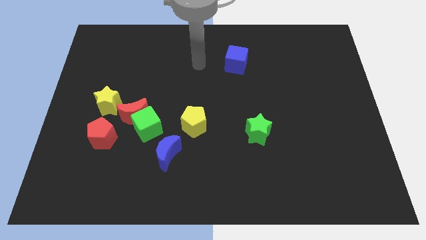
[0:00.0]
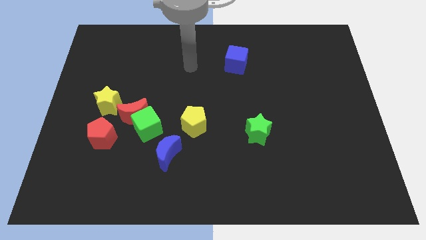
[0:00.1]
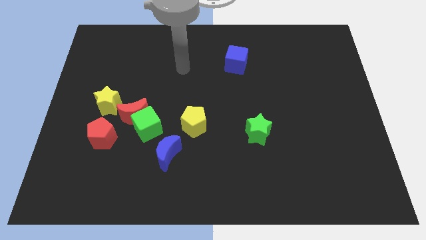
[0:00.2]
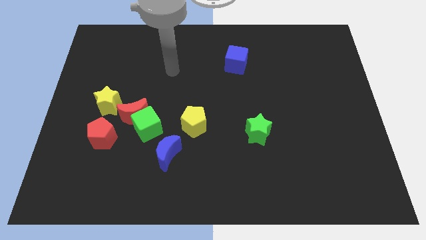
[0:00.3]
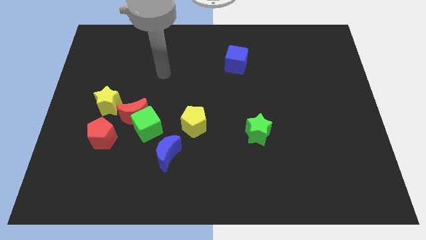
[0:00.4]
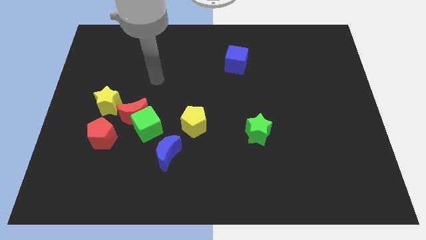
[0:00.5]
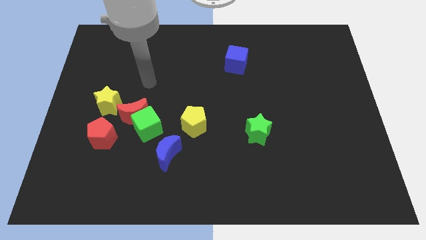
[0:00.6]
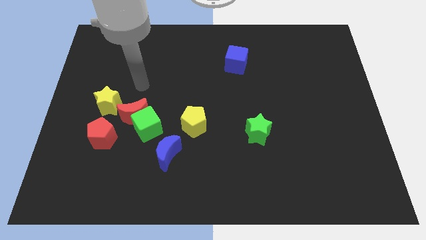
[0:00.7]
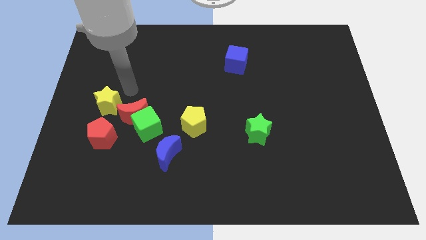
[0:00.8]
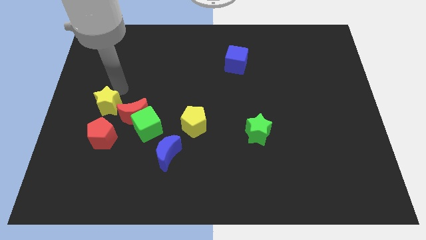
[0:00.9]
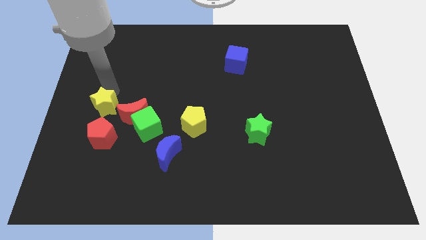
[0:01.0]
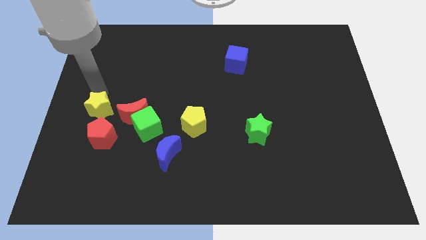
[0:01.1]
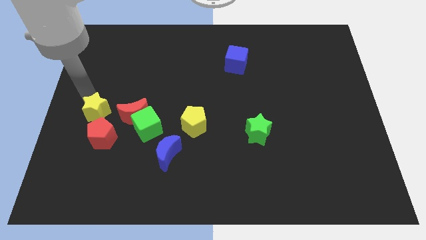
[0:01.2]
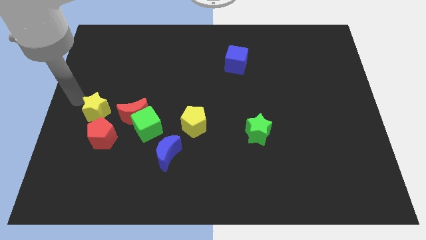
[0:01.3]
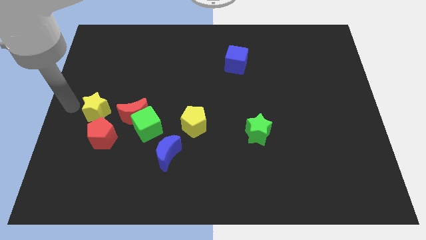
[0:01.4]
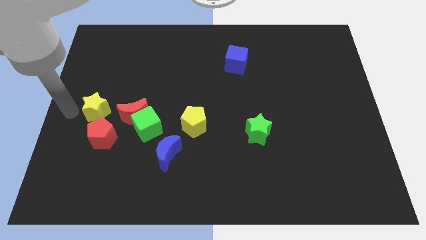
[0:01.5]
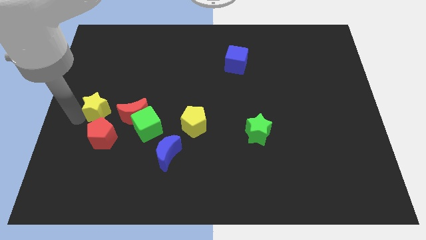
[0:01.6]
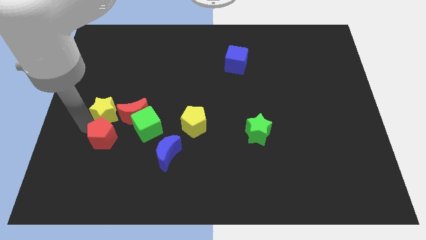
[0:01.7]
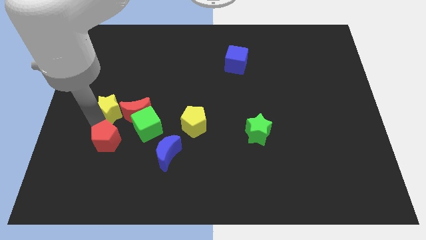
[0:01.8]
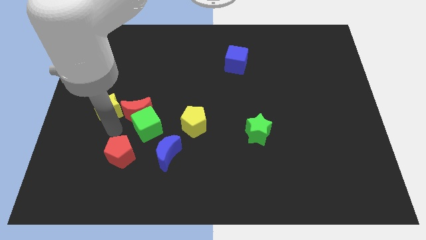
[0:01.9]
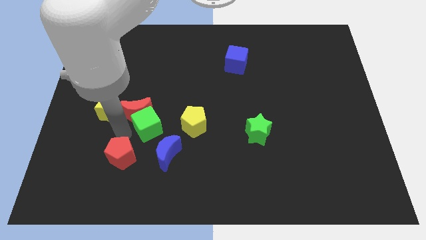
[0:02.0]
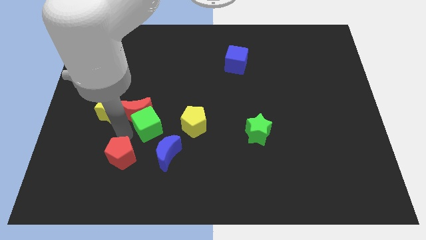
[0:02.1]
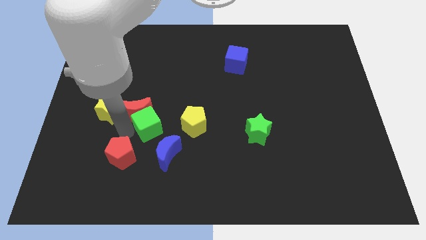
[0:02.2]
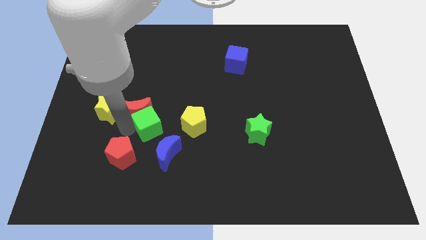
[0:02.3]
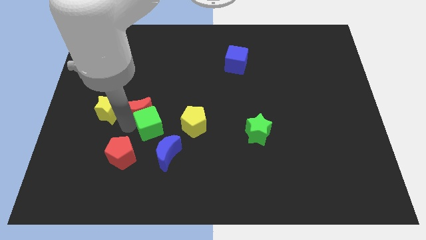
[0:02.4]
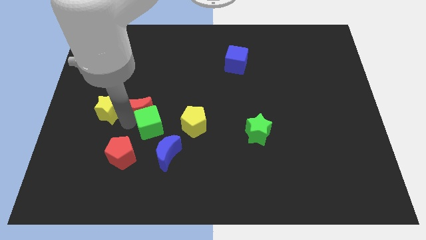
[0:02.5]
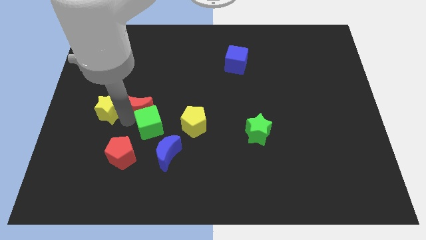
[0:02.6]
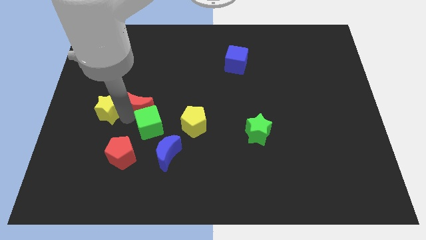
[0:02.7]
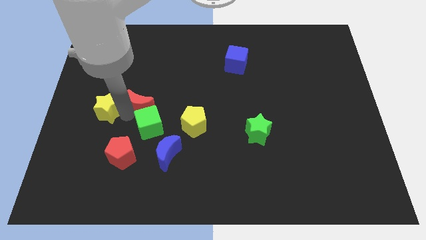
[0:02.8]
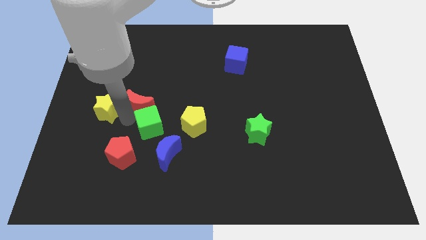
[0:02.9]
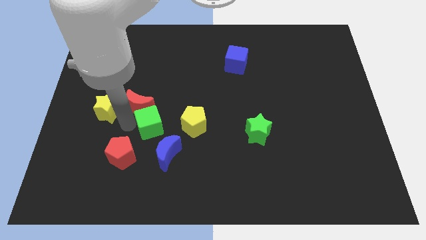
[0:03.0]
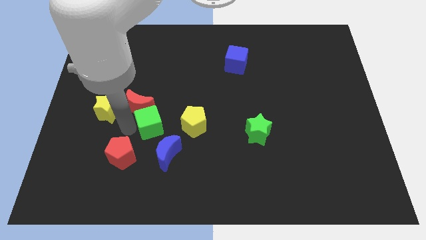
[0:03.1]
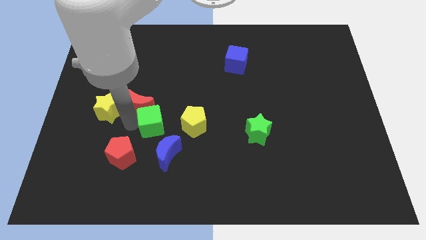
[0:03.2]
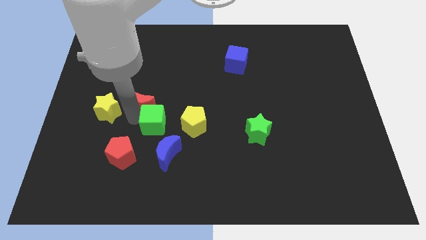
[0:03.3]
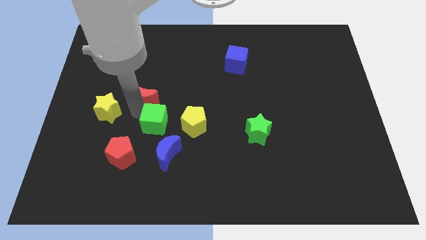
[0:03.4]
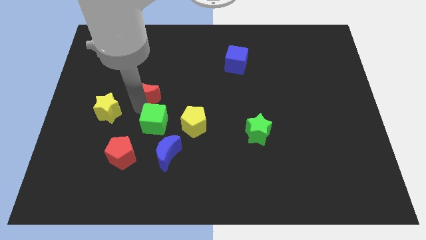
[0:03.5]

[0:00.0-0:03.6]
move the red moon away from the green cube, yellow star, and red pentagon

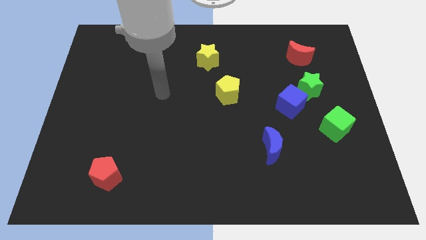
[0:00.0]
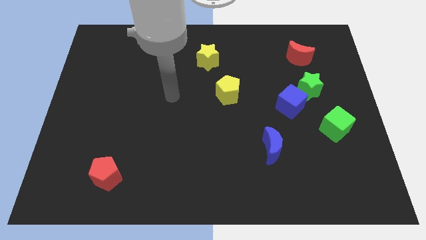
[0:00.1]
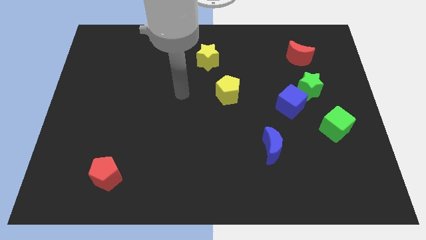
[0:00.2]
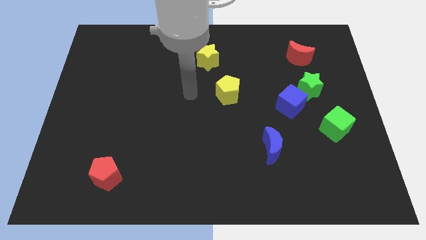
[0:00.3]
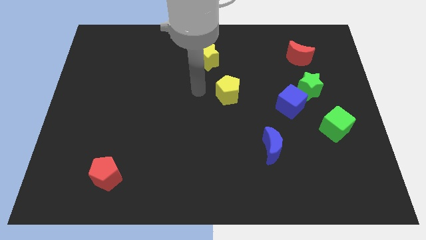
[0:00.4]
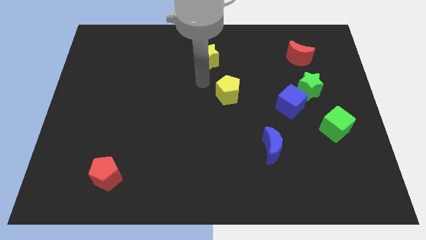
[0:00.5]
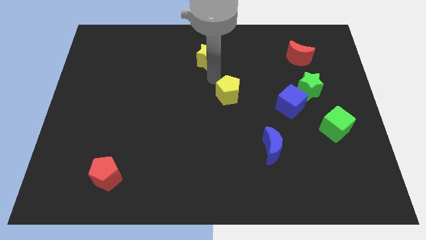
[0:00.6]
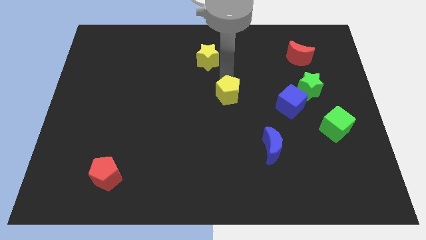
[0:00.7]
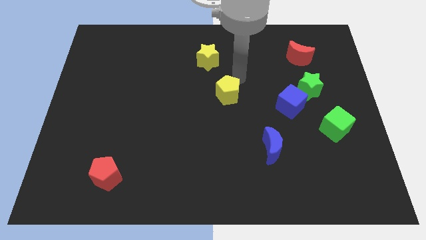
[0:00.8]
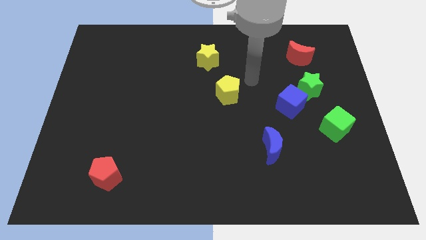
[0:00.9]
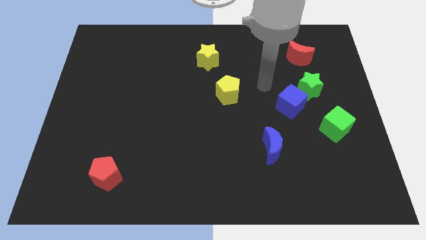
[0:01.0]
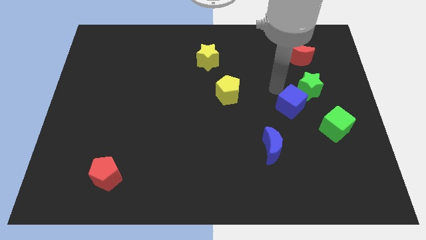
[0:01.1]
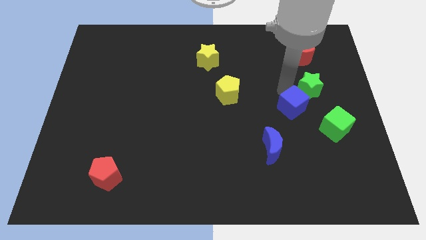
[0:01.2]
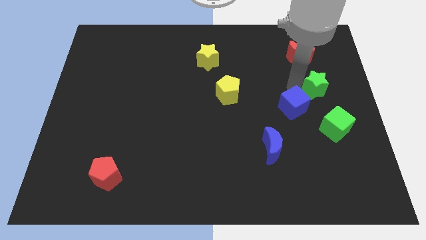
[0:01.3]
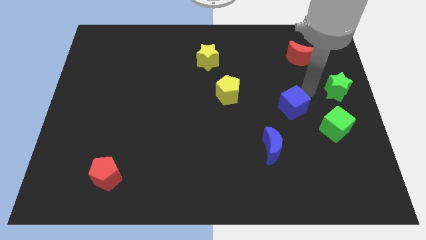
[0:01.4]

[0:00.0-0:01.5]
pull the blue cube apart from the green star

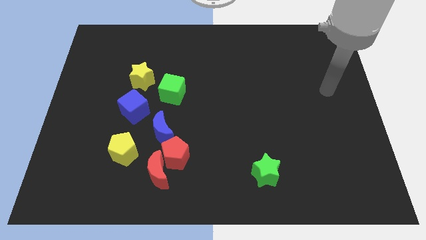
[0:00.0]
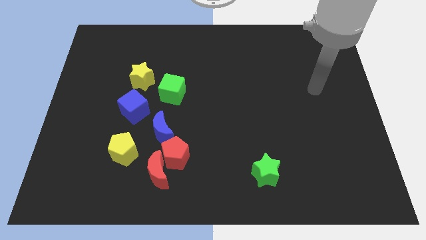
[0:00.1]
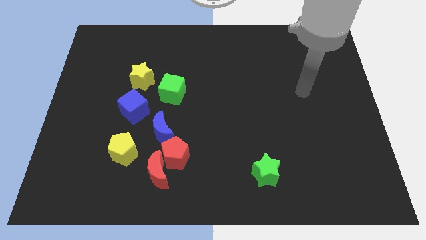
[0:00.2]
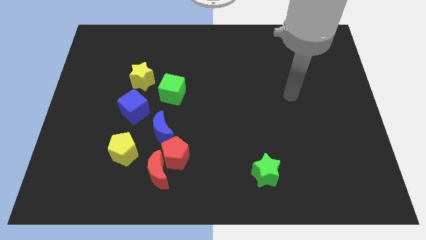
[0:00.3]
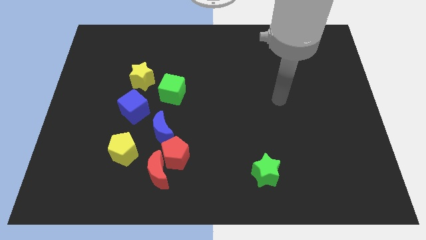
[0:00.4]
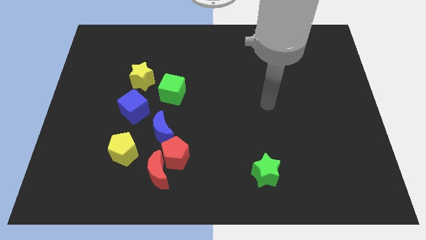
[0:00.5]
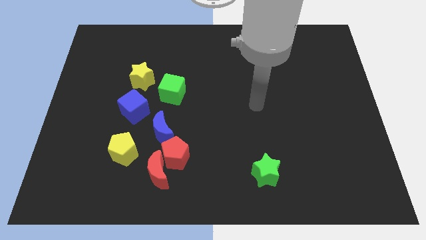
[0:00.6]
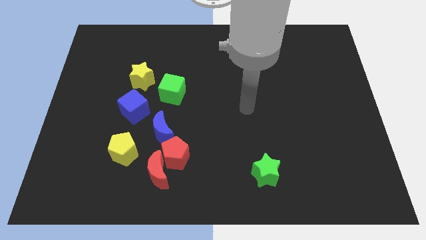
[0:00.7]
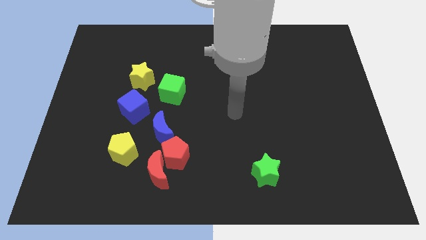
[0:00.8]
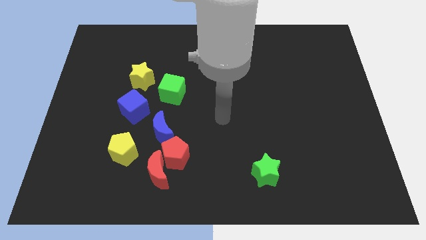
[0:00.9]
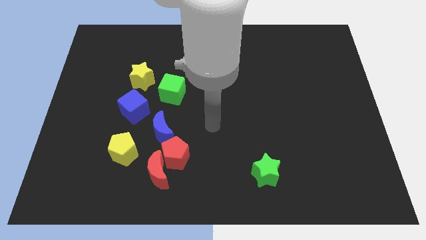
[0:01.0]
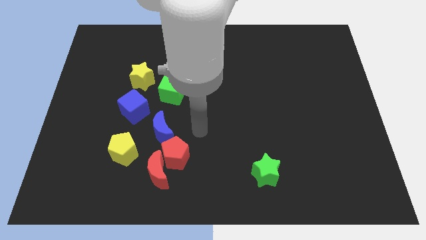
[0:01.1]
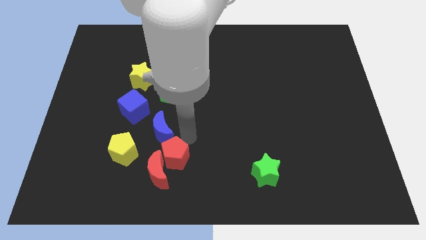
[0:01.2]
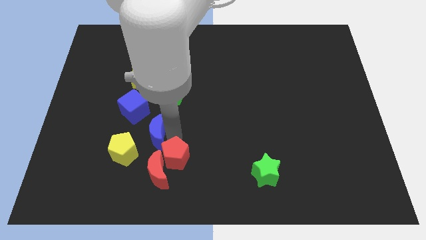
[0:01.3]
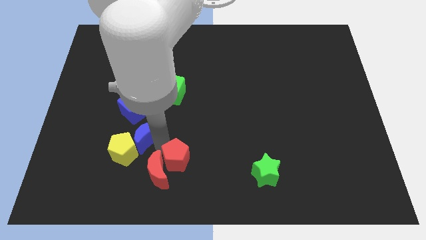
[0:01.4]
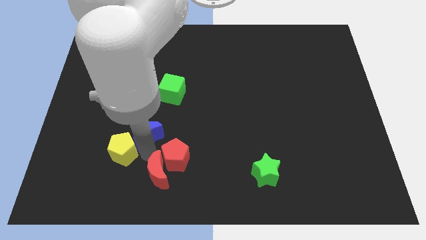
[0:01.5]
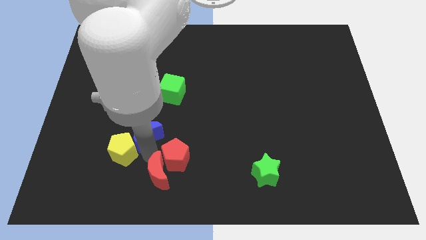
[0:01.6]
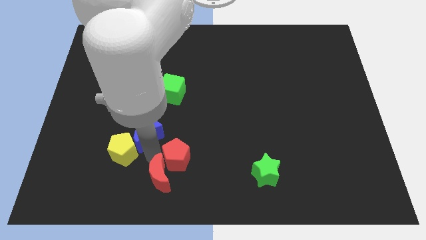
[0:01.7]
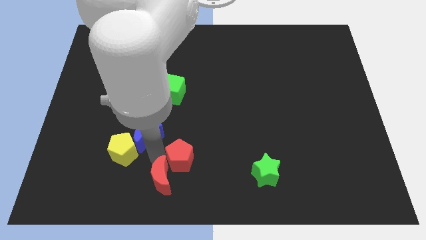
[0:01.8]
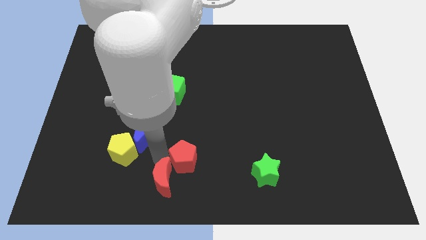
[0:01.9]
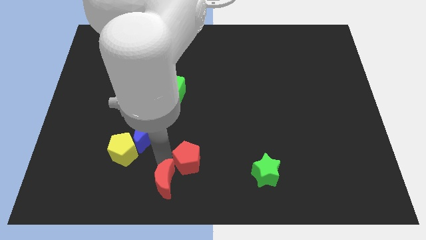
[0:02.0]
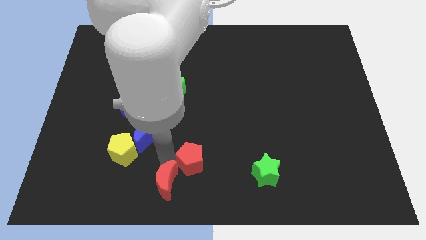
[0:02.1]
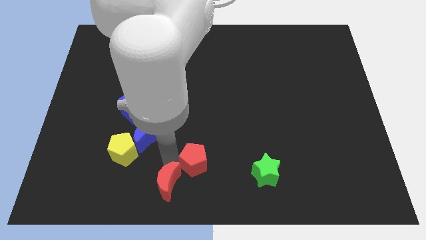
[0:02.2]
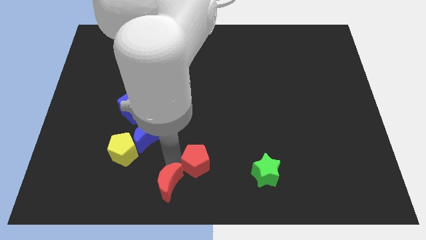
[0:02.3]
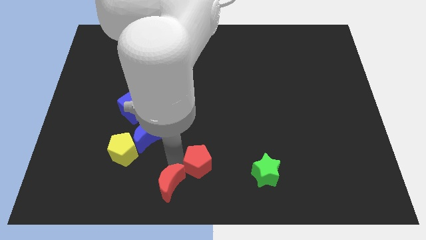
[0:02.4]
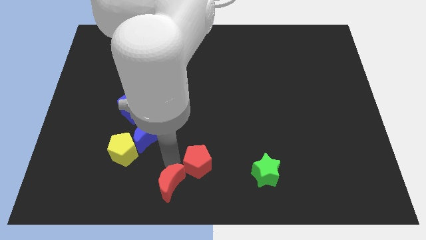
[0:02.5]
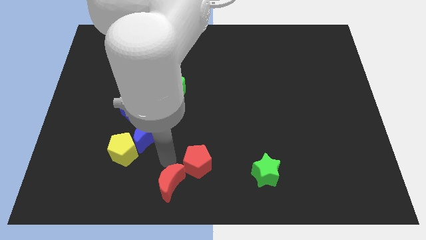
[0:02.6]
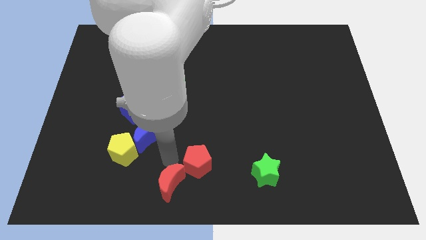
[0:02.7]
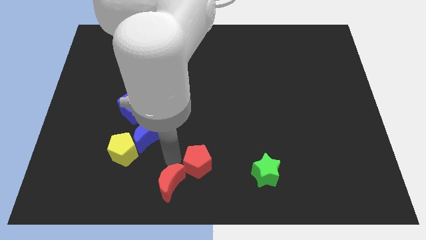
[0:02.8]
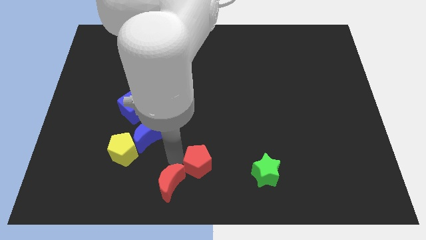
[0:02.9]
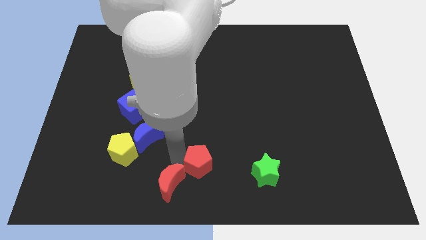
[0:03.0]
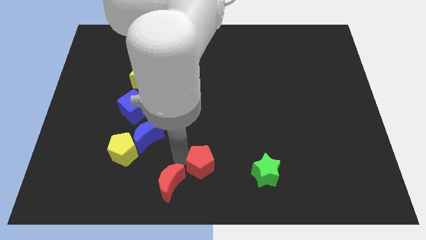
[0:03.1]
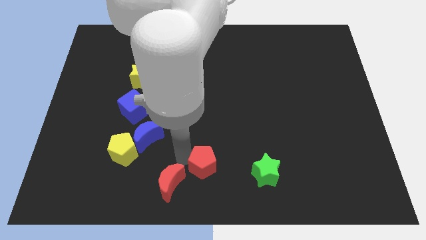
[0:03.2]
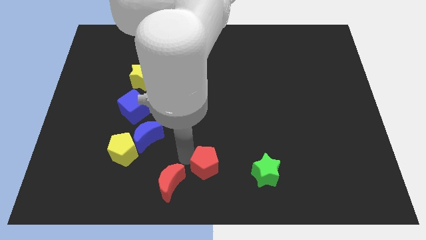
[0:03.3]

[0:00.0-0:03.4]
move the red pentagon away from the red moon and blue moon

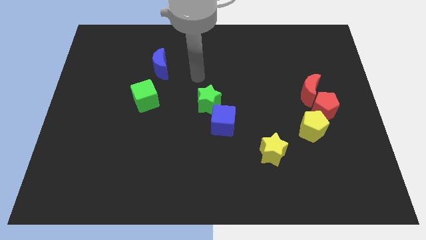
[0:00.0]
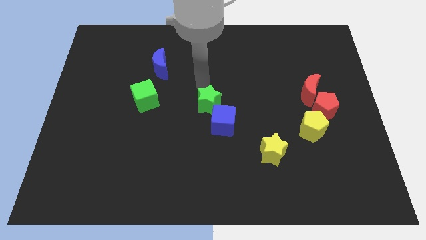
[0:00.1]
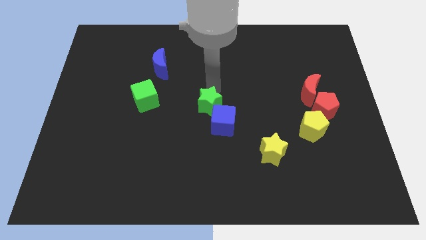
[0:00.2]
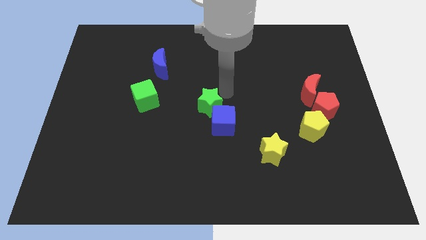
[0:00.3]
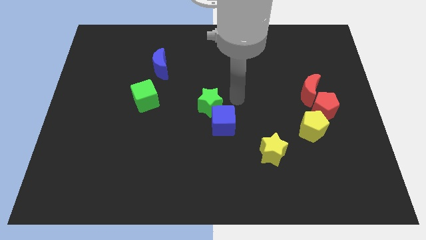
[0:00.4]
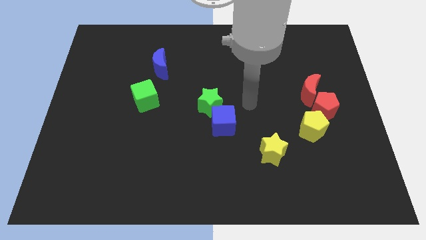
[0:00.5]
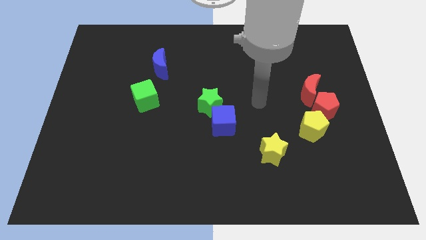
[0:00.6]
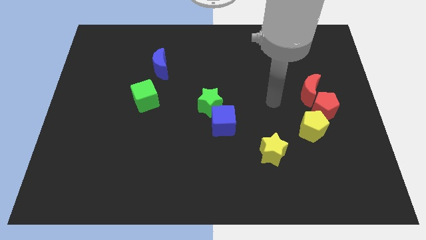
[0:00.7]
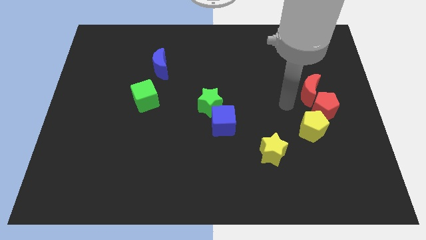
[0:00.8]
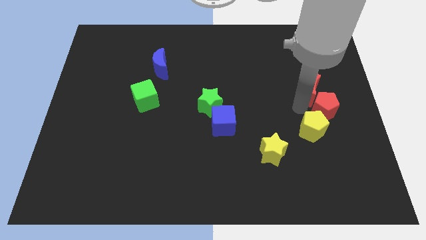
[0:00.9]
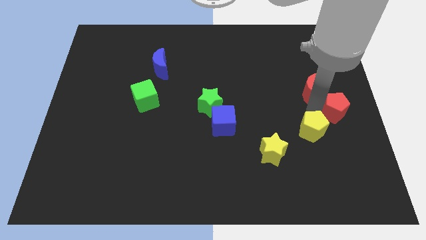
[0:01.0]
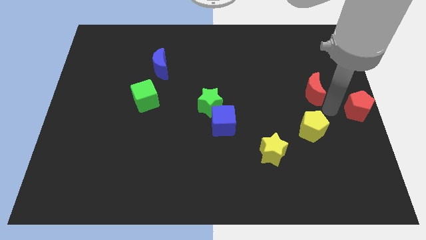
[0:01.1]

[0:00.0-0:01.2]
separate the red moon from the red pentagon
